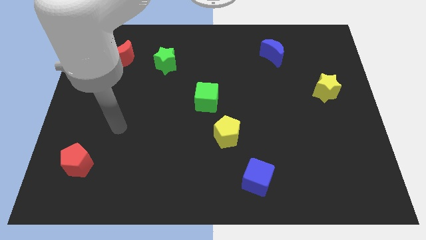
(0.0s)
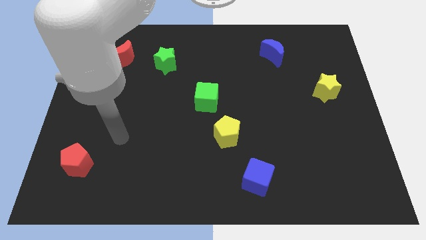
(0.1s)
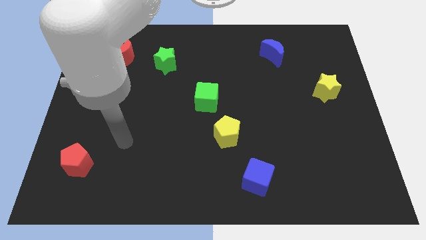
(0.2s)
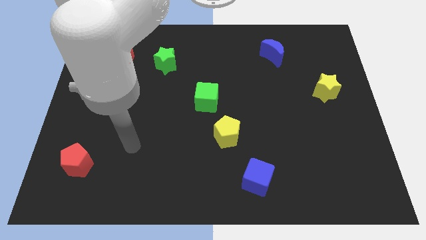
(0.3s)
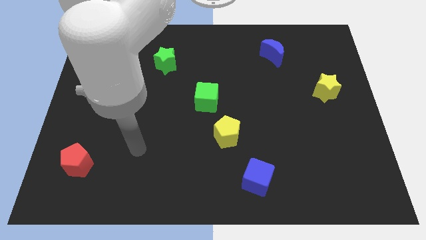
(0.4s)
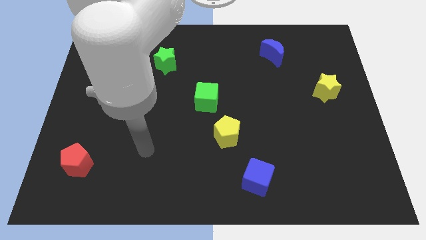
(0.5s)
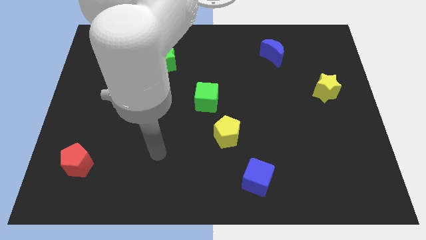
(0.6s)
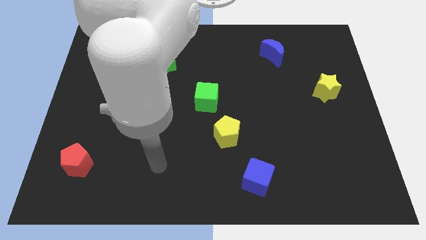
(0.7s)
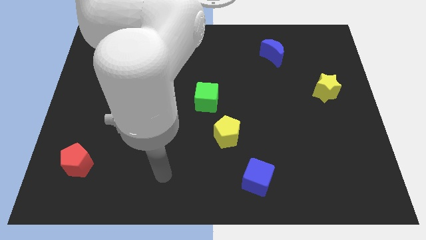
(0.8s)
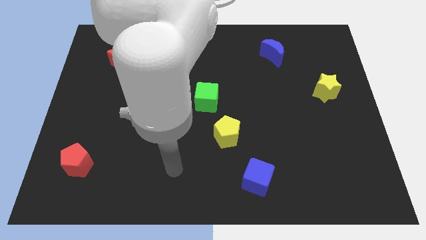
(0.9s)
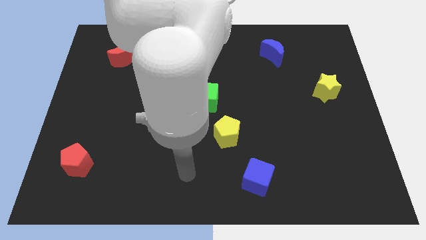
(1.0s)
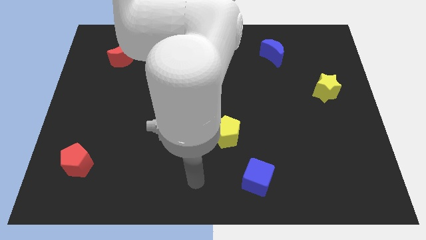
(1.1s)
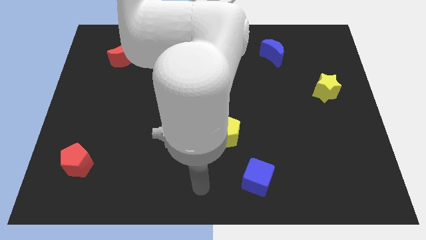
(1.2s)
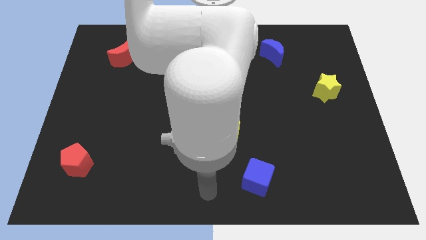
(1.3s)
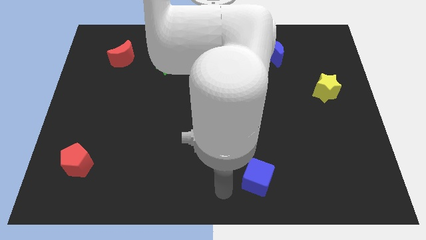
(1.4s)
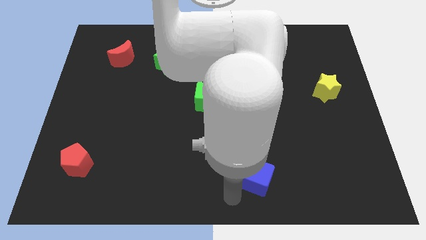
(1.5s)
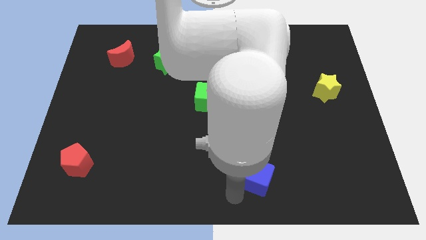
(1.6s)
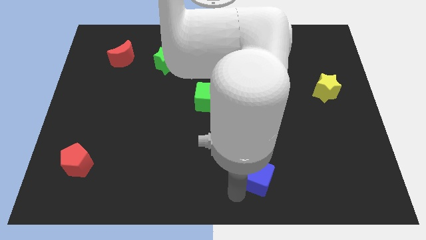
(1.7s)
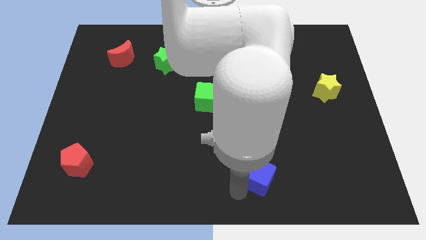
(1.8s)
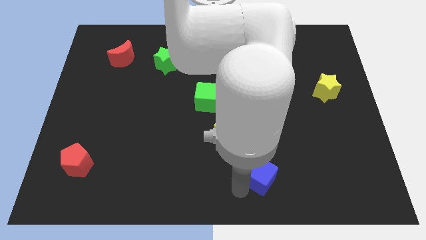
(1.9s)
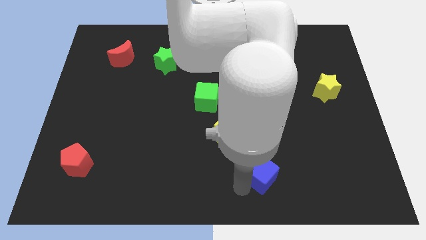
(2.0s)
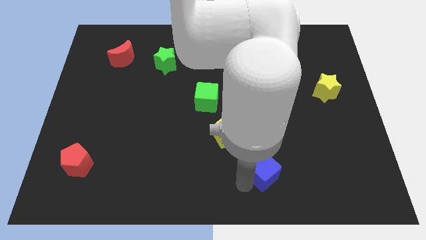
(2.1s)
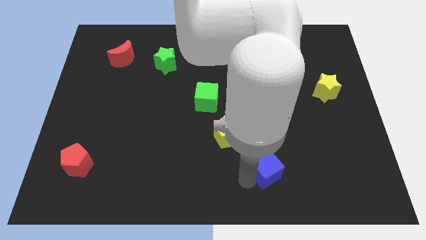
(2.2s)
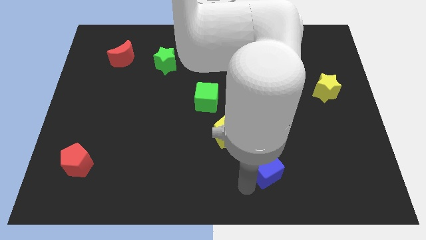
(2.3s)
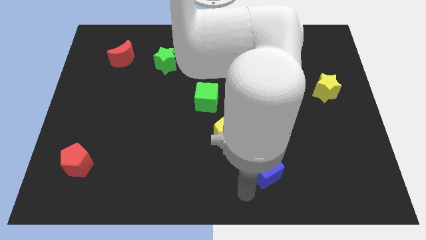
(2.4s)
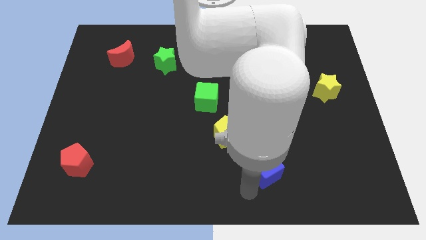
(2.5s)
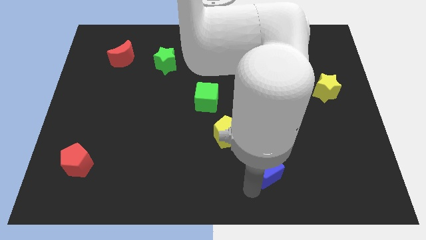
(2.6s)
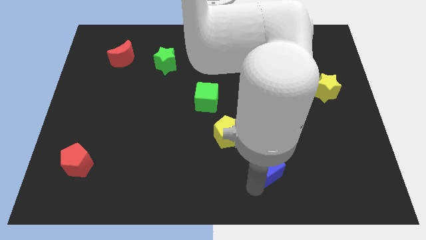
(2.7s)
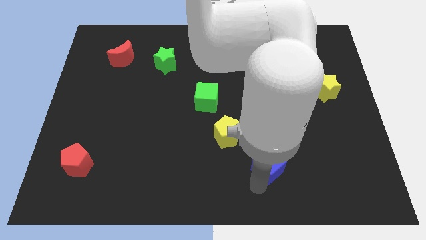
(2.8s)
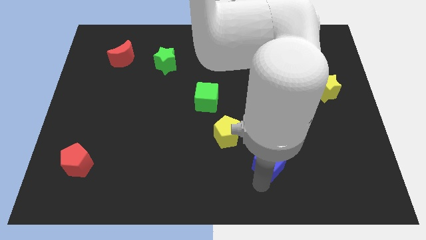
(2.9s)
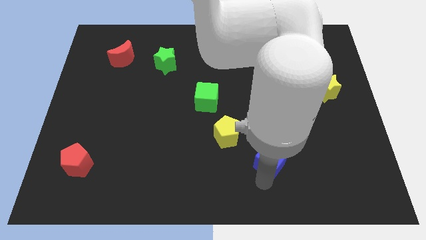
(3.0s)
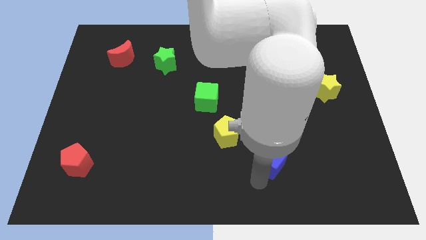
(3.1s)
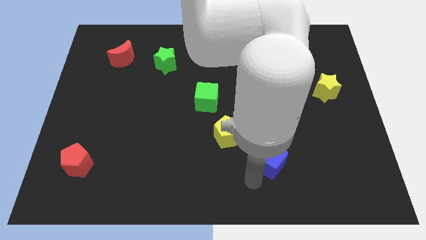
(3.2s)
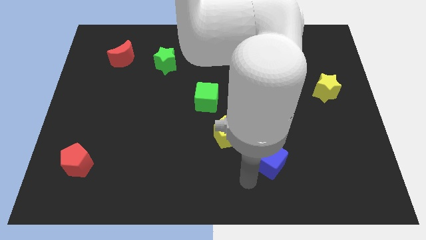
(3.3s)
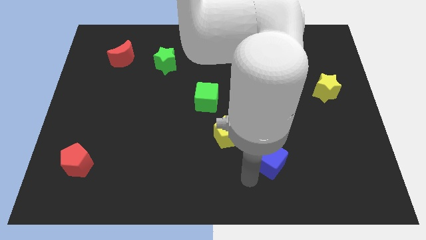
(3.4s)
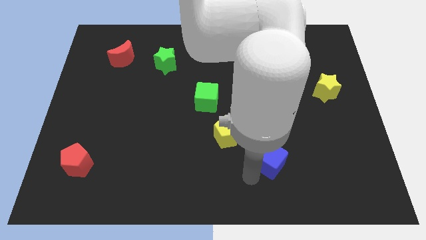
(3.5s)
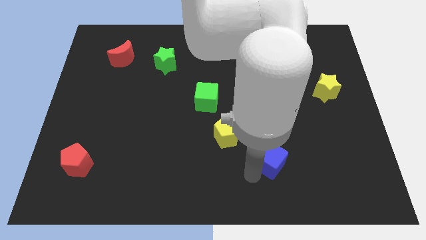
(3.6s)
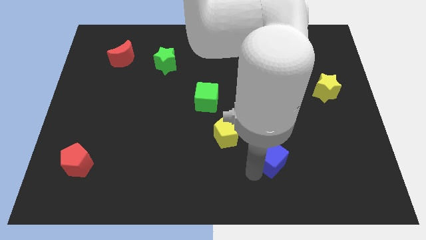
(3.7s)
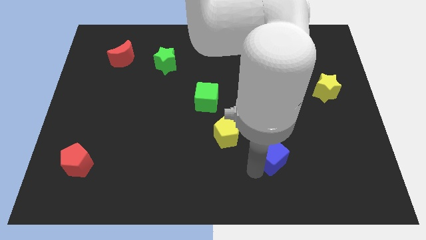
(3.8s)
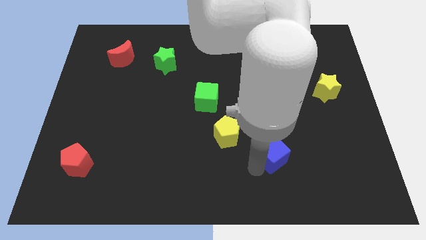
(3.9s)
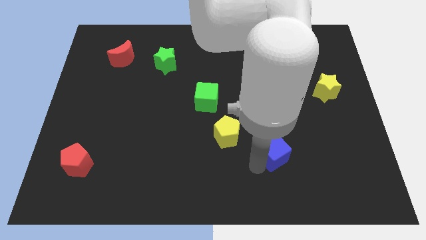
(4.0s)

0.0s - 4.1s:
slightly move the blue cube upwards and right

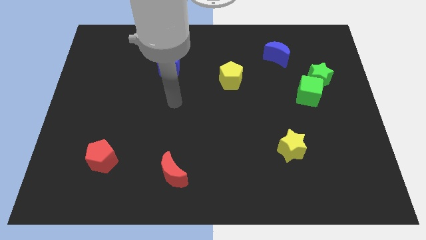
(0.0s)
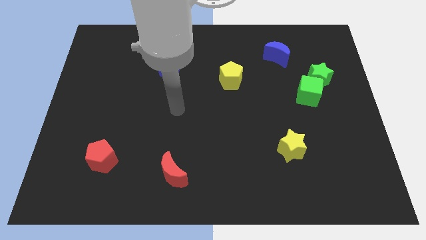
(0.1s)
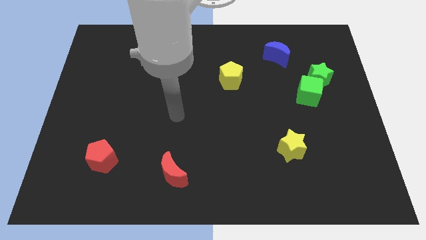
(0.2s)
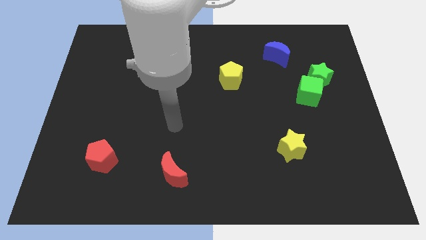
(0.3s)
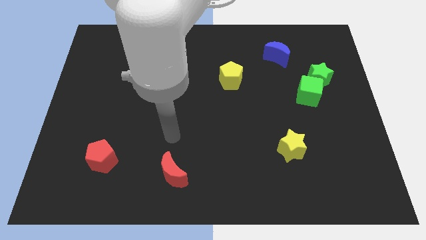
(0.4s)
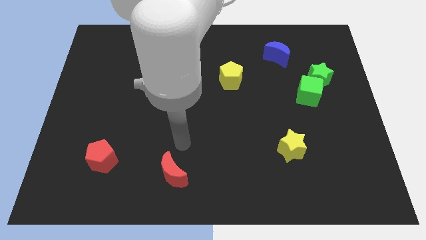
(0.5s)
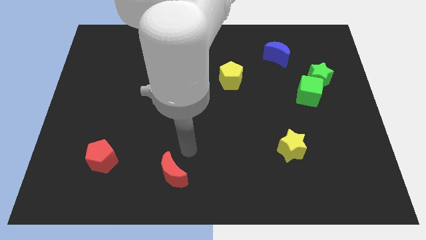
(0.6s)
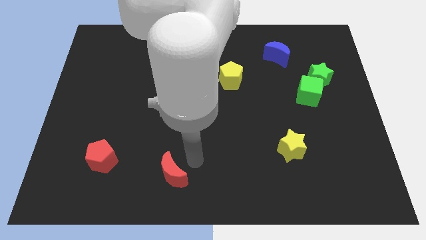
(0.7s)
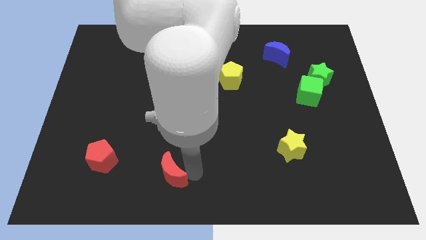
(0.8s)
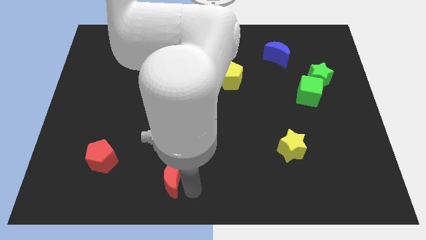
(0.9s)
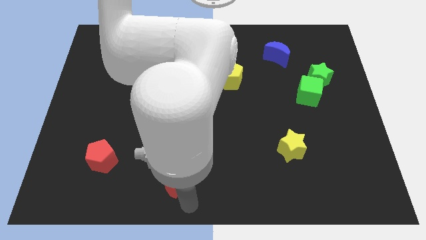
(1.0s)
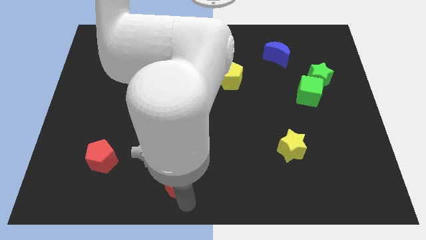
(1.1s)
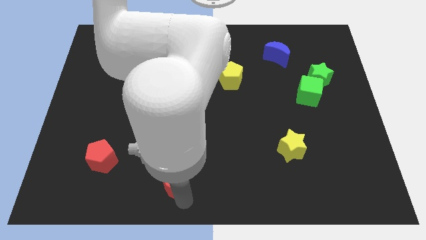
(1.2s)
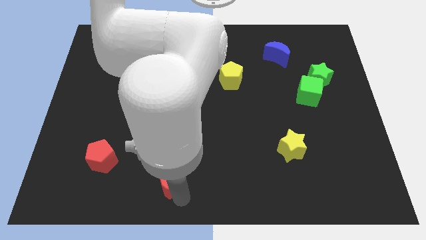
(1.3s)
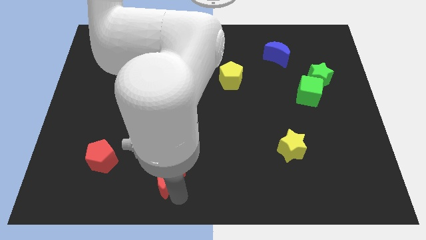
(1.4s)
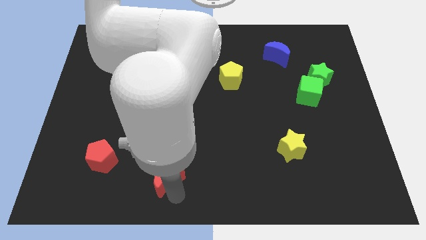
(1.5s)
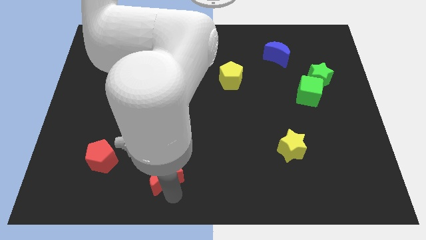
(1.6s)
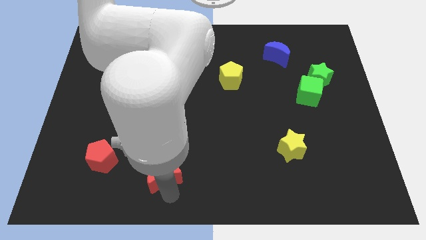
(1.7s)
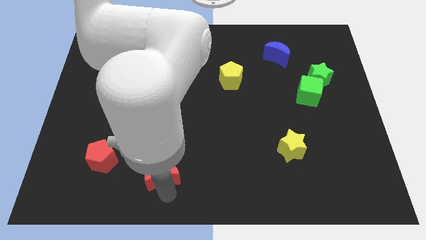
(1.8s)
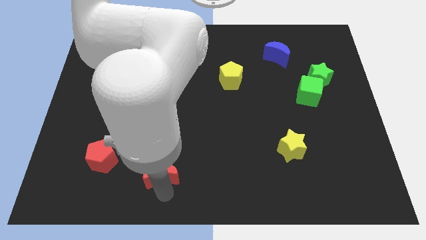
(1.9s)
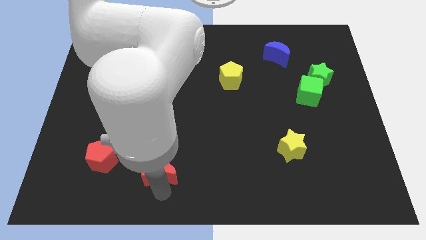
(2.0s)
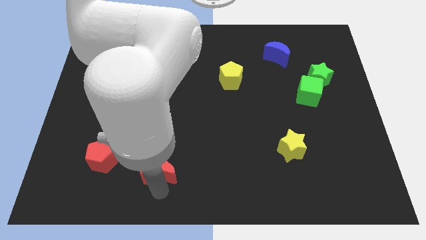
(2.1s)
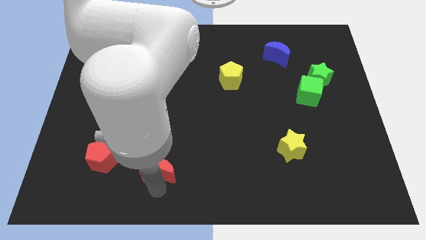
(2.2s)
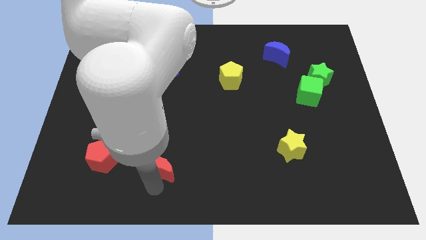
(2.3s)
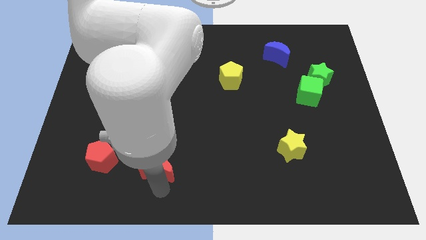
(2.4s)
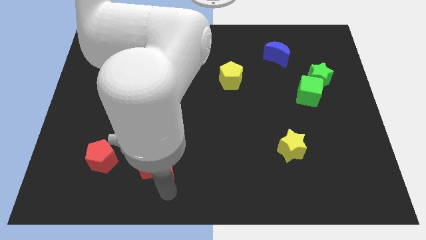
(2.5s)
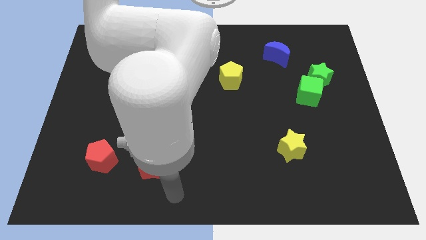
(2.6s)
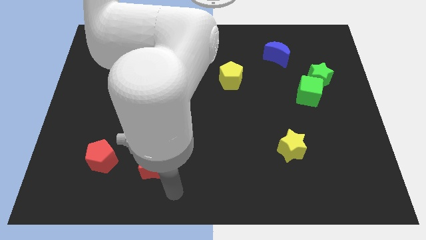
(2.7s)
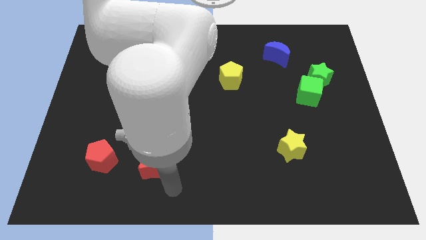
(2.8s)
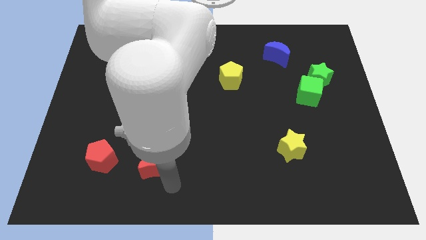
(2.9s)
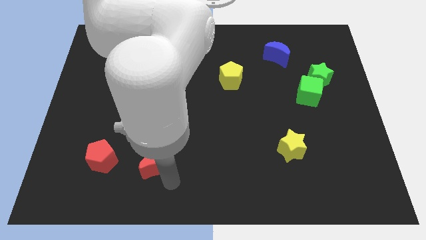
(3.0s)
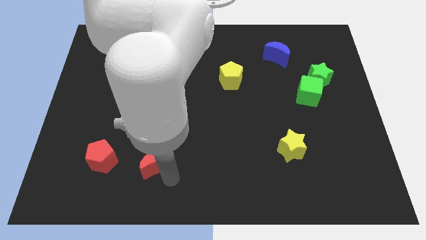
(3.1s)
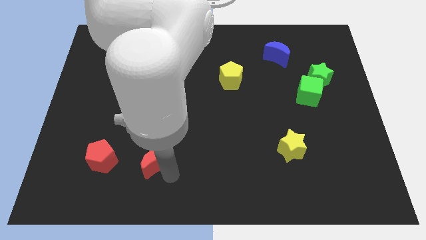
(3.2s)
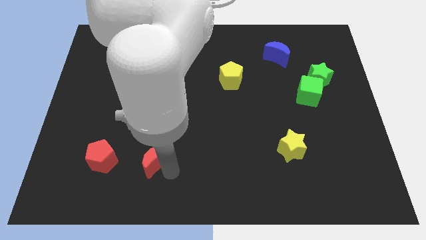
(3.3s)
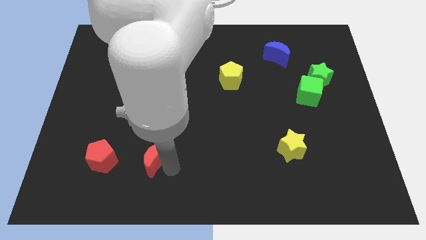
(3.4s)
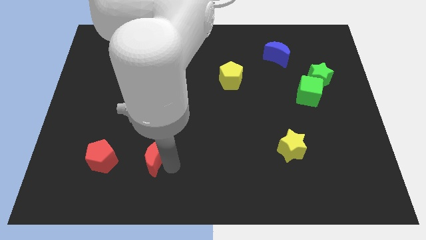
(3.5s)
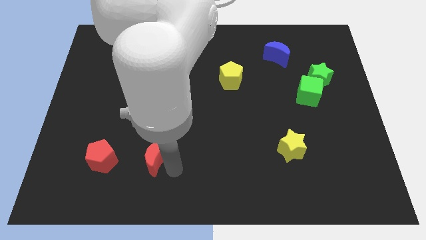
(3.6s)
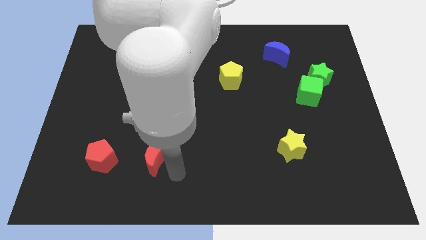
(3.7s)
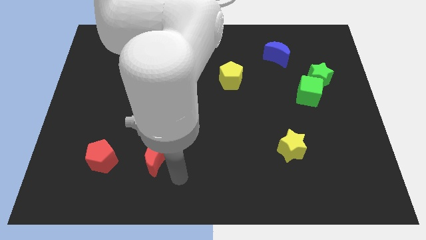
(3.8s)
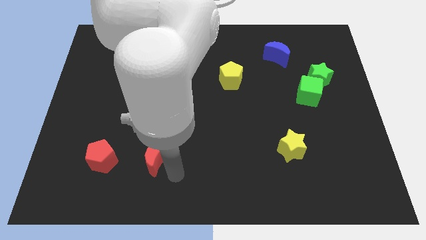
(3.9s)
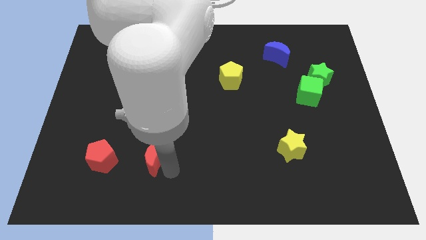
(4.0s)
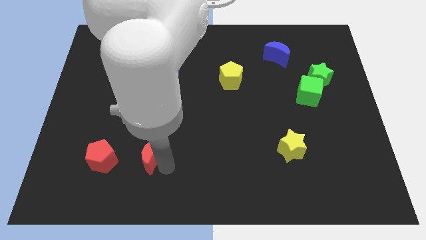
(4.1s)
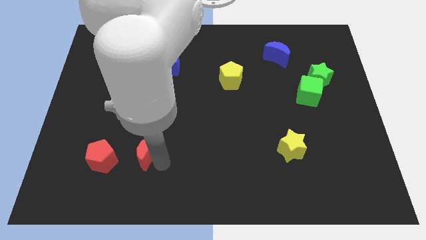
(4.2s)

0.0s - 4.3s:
slightly slide the red moon up and then to the left
